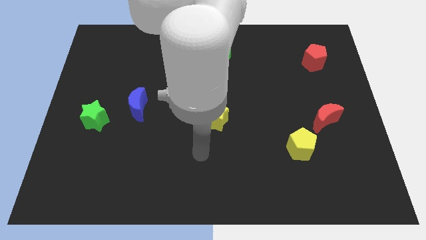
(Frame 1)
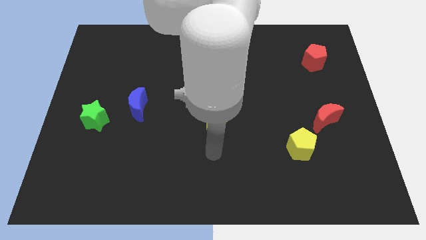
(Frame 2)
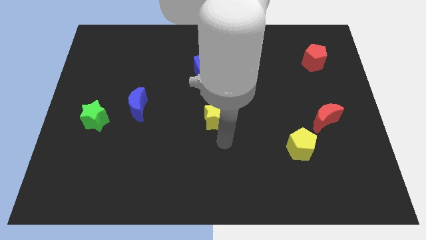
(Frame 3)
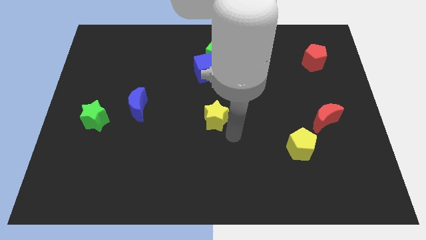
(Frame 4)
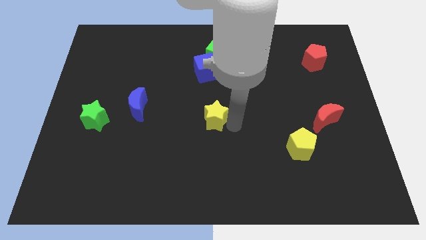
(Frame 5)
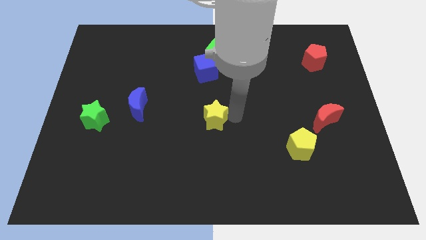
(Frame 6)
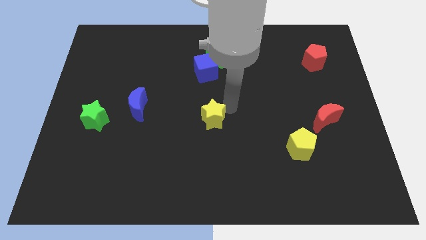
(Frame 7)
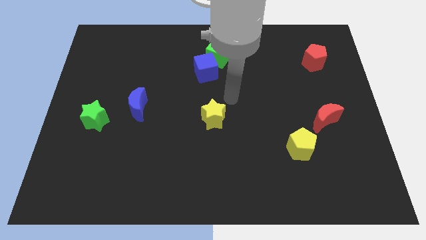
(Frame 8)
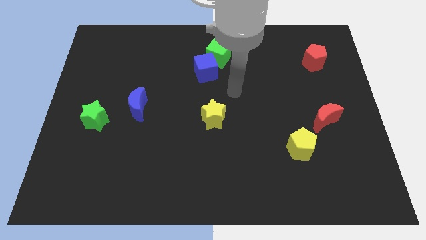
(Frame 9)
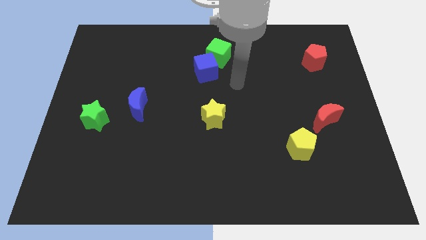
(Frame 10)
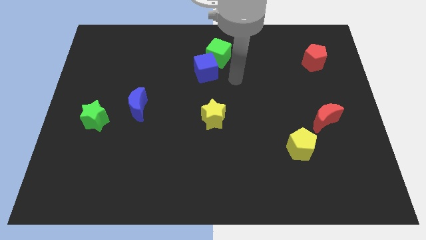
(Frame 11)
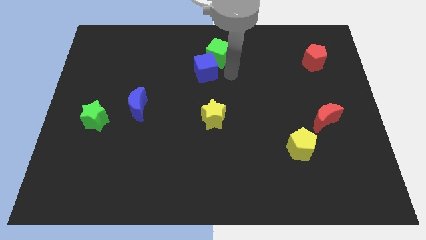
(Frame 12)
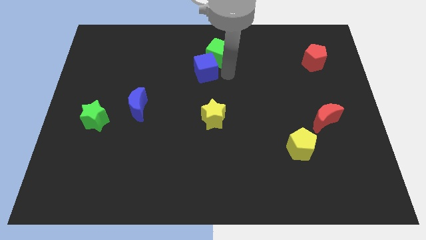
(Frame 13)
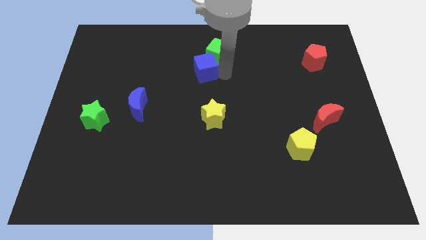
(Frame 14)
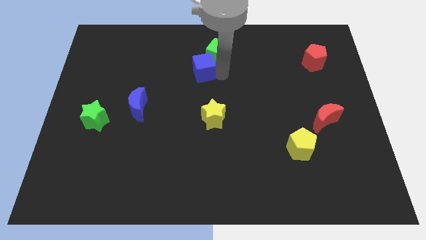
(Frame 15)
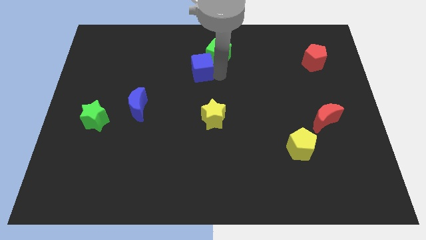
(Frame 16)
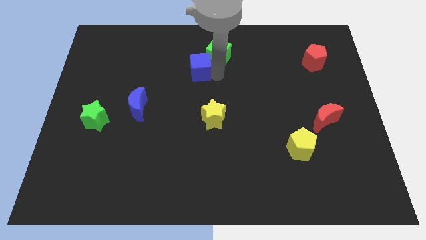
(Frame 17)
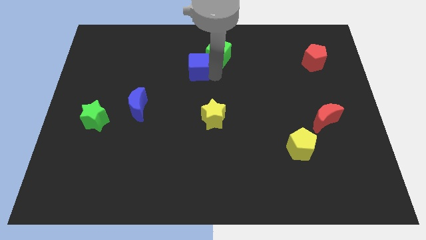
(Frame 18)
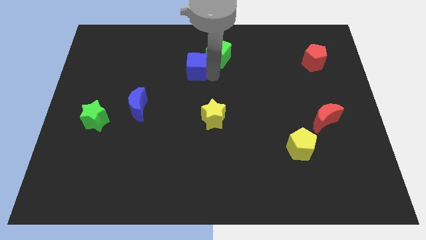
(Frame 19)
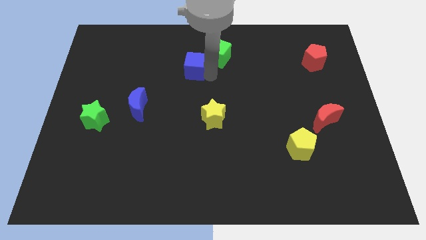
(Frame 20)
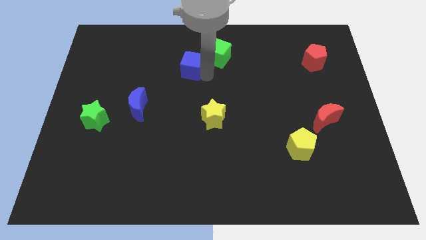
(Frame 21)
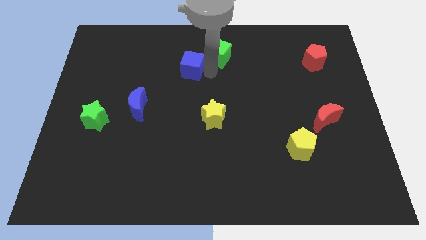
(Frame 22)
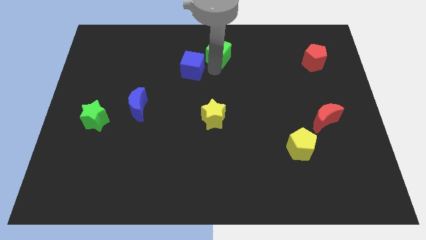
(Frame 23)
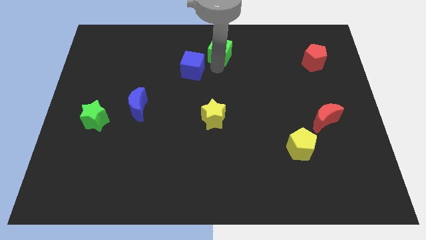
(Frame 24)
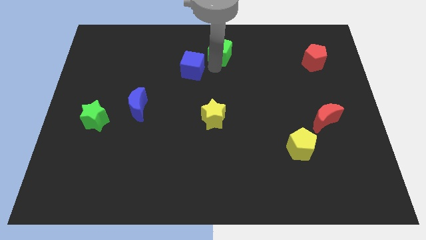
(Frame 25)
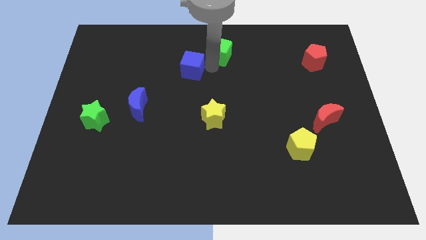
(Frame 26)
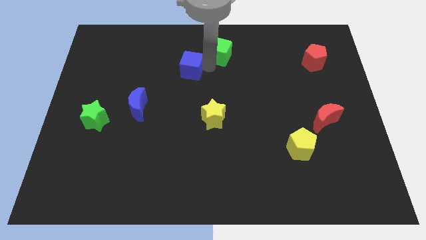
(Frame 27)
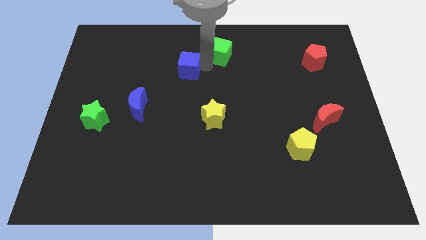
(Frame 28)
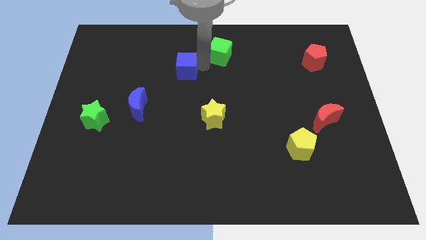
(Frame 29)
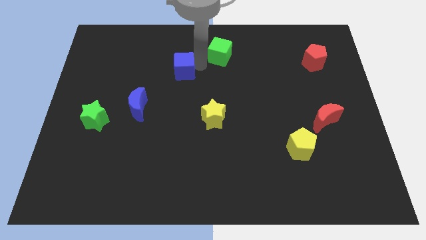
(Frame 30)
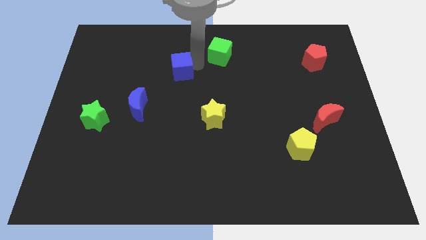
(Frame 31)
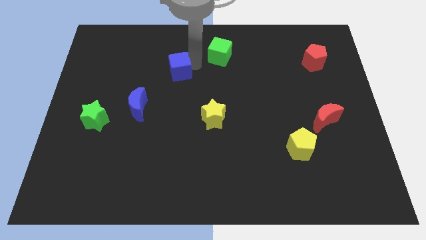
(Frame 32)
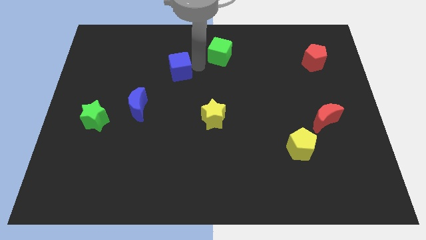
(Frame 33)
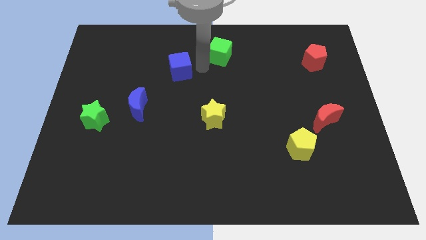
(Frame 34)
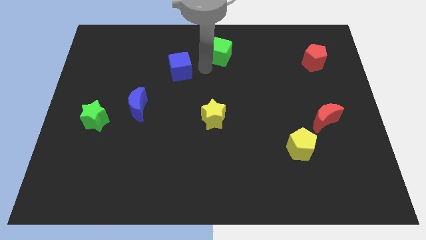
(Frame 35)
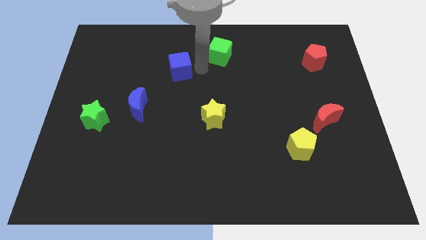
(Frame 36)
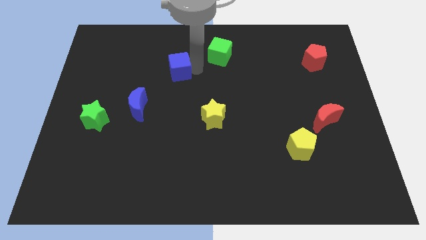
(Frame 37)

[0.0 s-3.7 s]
push the blue cube left a little bit

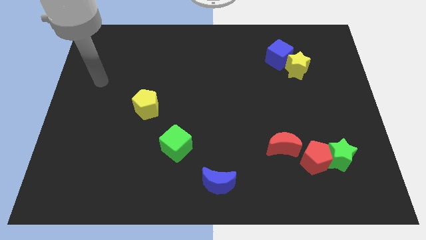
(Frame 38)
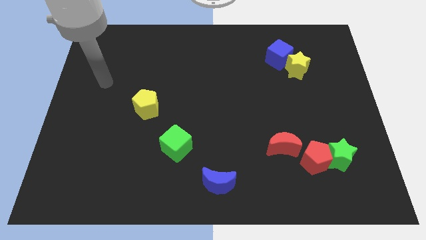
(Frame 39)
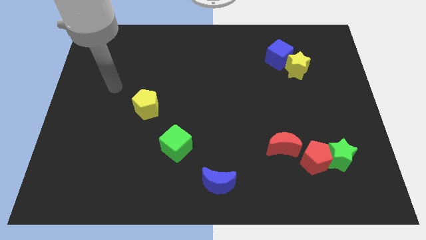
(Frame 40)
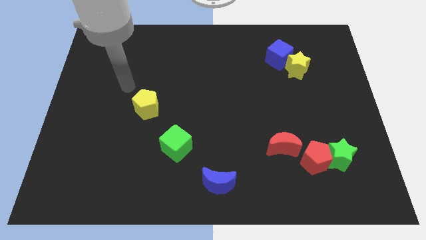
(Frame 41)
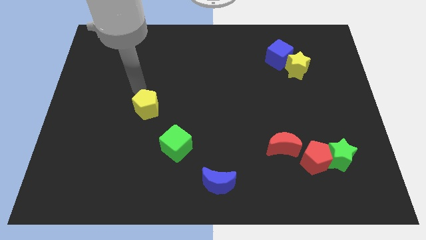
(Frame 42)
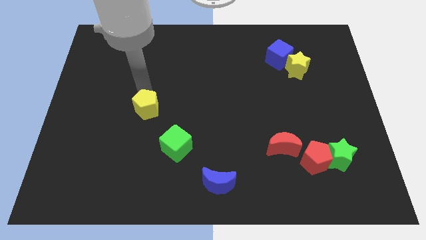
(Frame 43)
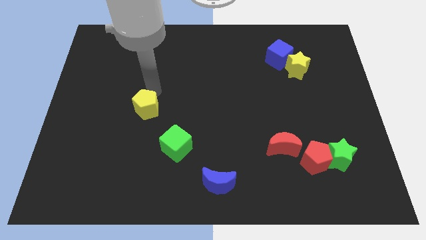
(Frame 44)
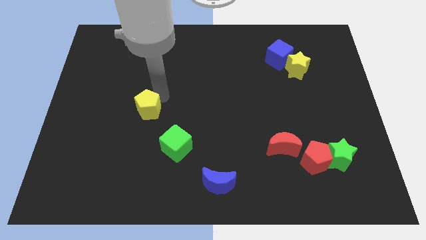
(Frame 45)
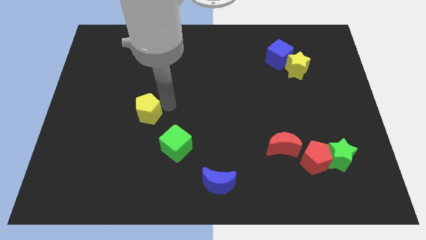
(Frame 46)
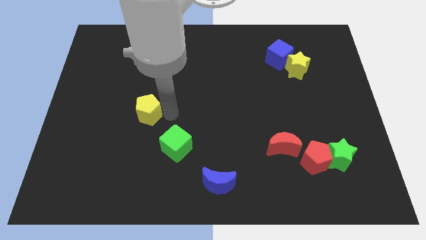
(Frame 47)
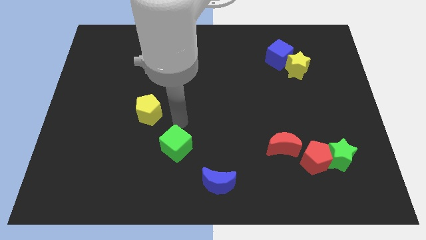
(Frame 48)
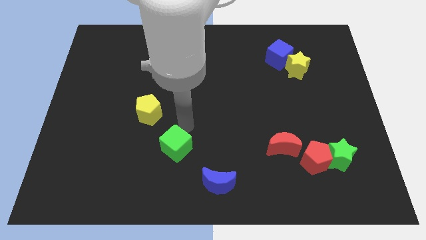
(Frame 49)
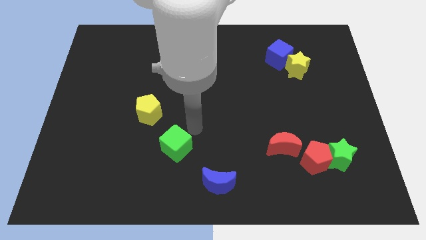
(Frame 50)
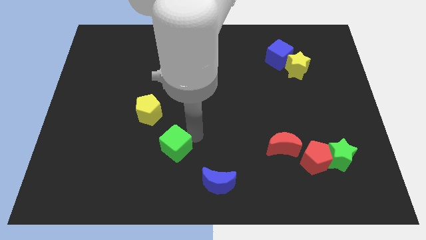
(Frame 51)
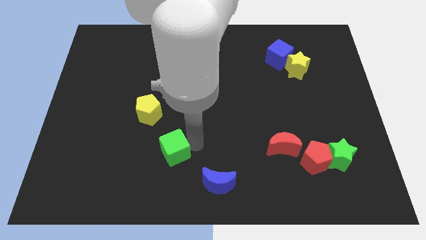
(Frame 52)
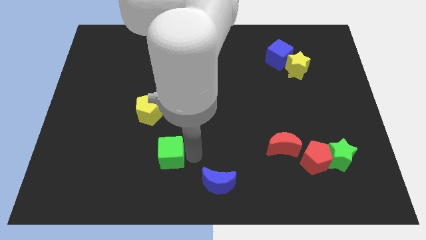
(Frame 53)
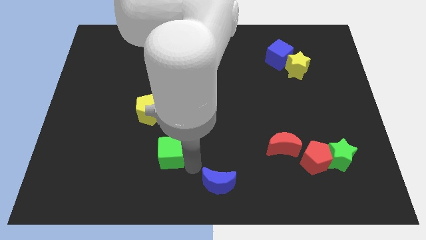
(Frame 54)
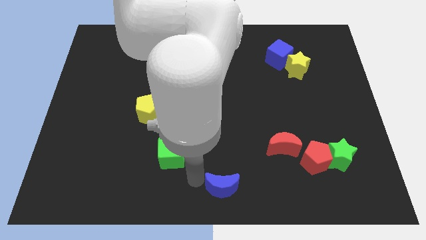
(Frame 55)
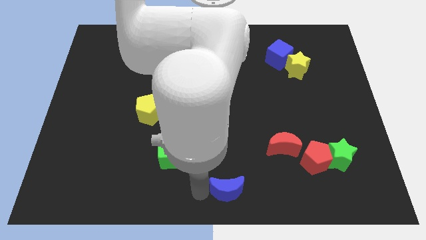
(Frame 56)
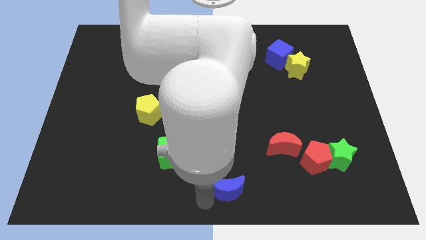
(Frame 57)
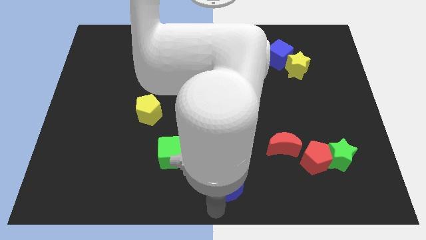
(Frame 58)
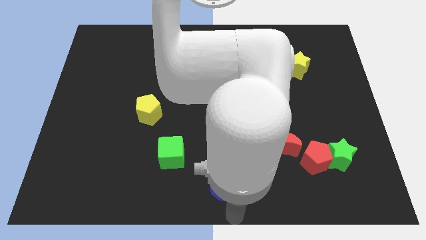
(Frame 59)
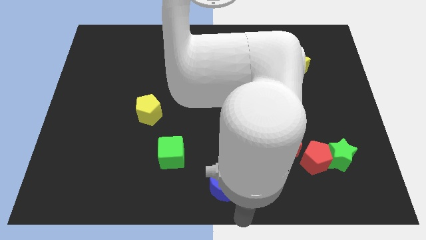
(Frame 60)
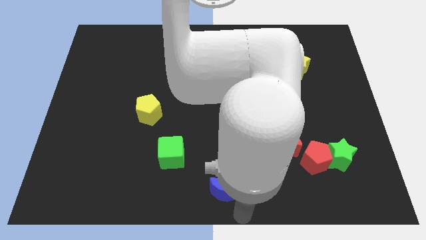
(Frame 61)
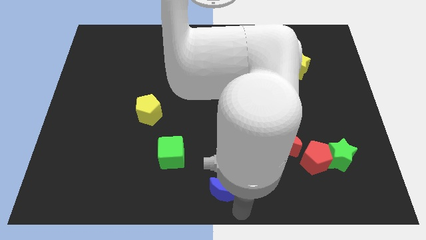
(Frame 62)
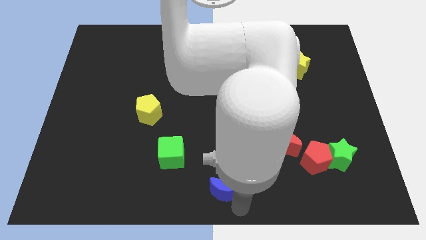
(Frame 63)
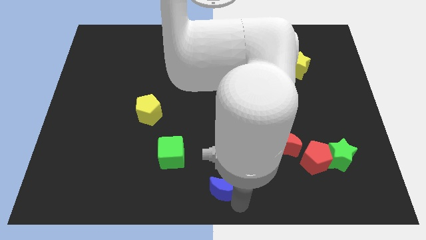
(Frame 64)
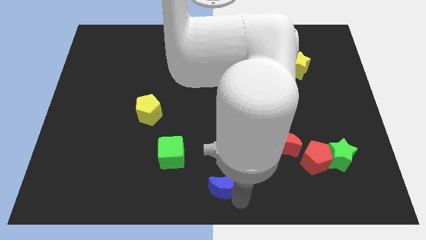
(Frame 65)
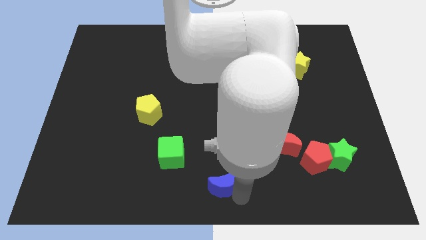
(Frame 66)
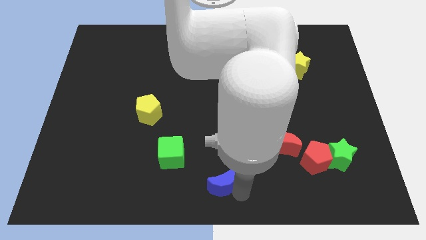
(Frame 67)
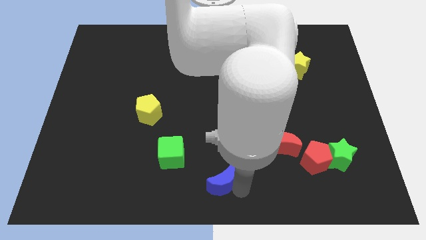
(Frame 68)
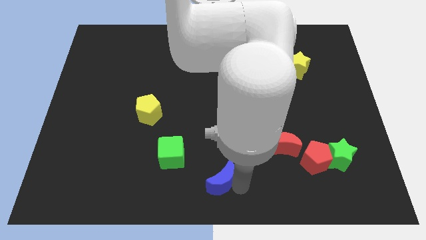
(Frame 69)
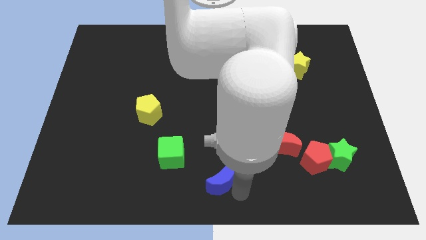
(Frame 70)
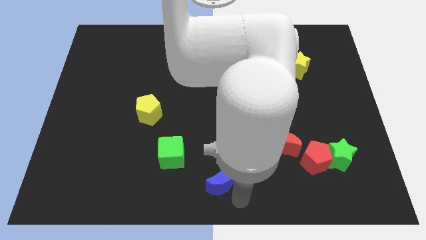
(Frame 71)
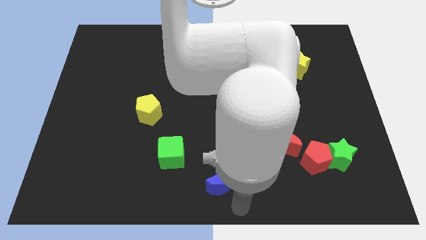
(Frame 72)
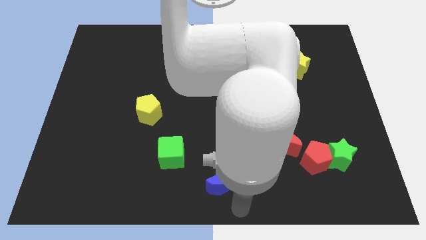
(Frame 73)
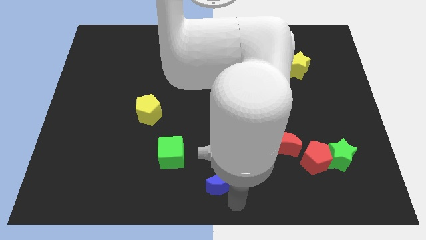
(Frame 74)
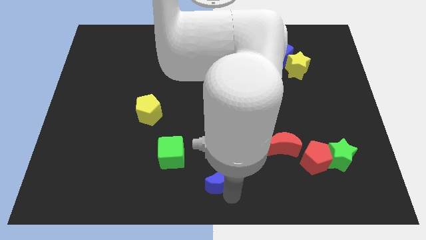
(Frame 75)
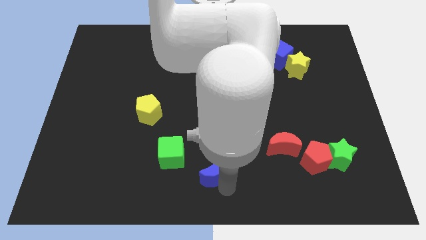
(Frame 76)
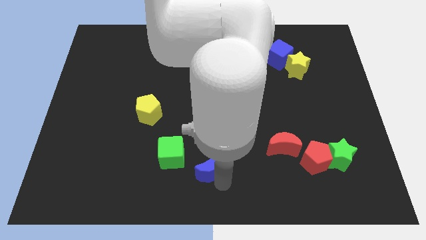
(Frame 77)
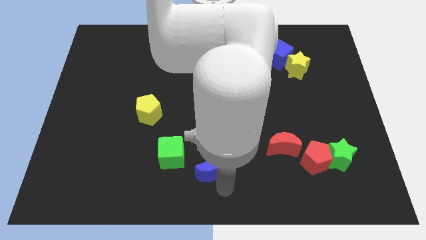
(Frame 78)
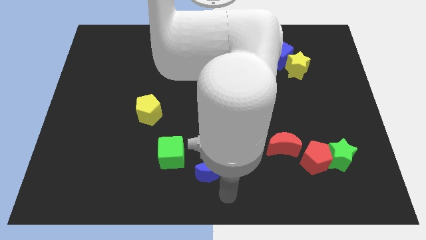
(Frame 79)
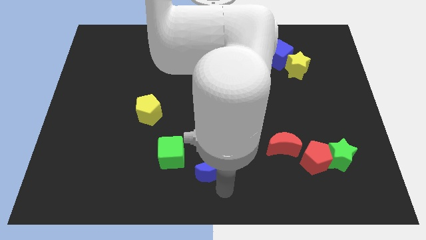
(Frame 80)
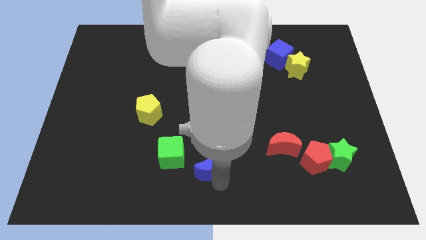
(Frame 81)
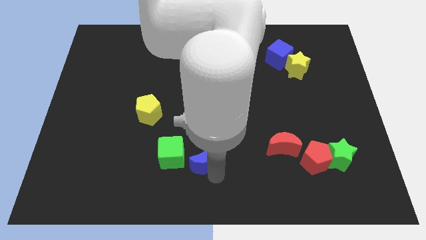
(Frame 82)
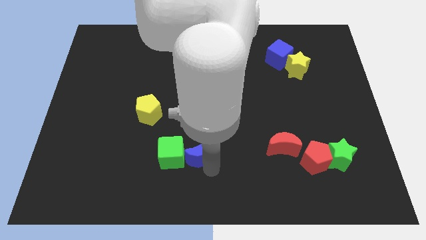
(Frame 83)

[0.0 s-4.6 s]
slightly slide the blue moon diagonally upwards and left
